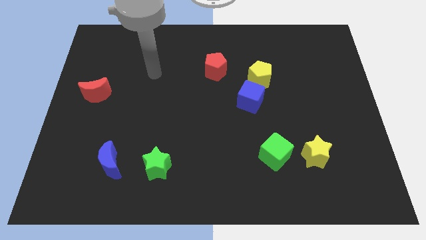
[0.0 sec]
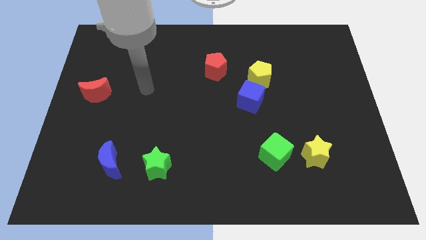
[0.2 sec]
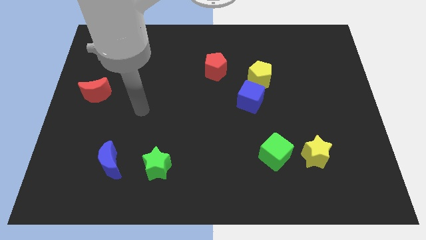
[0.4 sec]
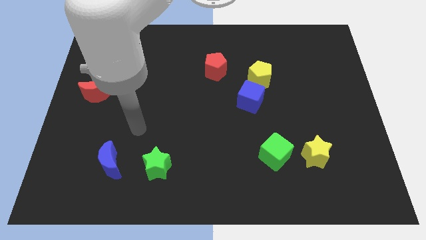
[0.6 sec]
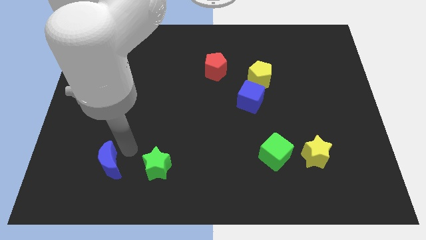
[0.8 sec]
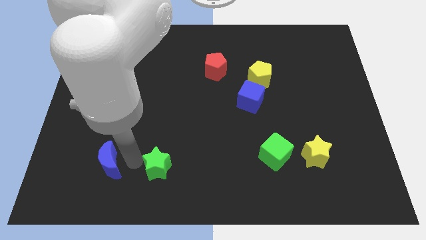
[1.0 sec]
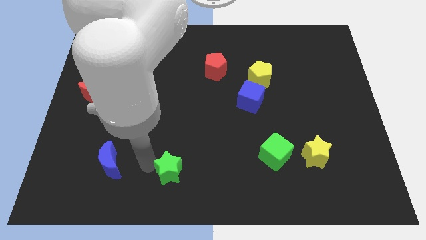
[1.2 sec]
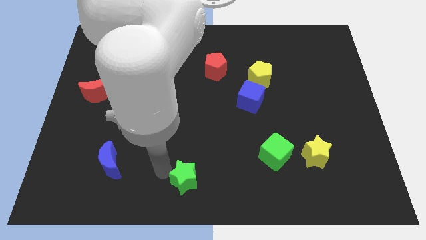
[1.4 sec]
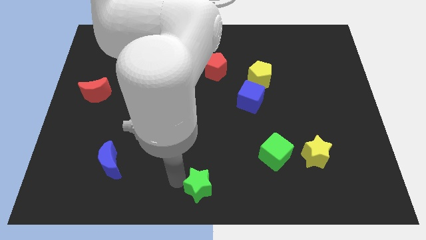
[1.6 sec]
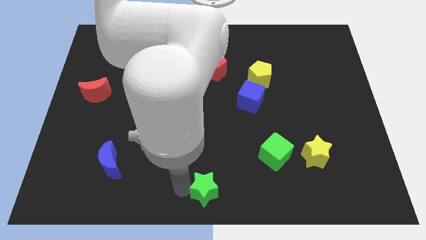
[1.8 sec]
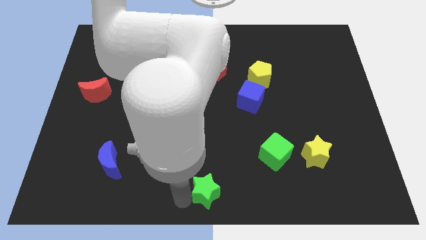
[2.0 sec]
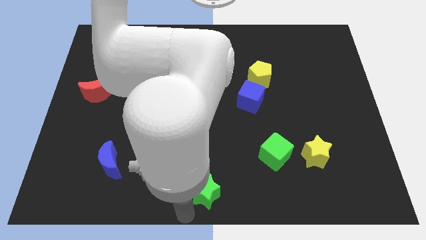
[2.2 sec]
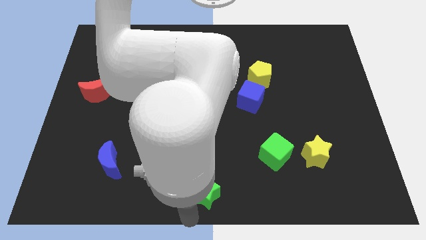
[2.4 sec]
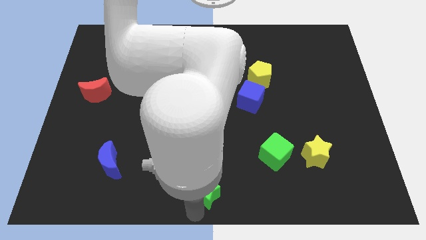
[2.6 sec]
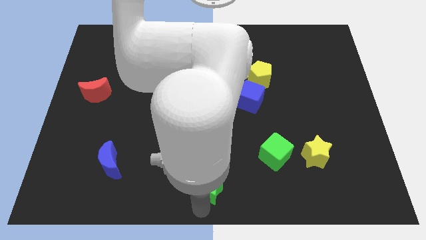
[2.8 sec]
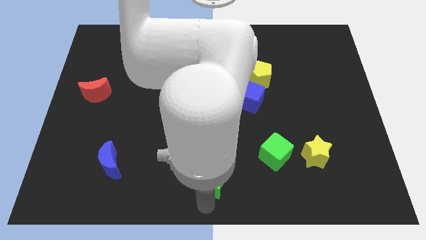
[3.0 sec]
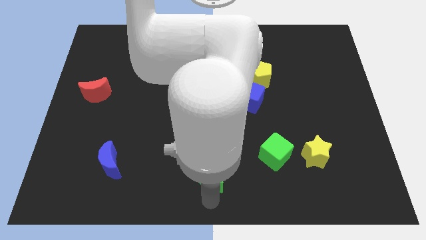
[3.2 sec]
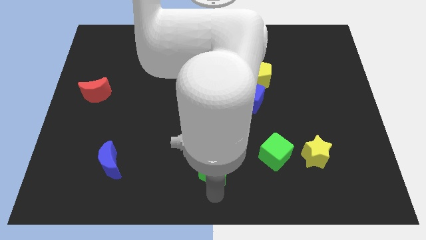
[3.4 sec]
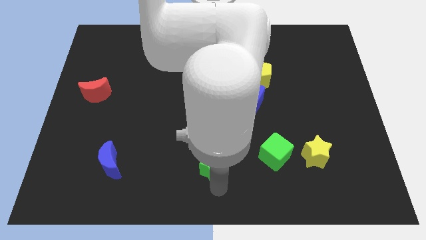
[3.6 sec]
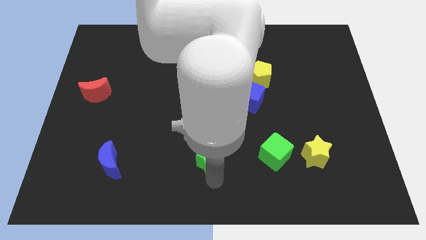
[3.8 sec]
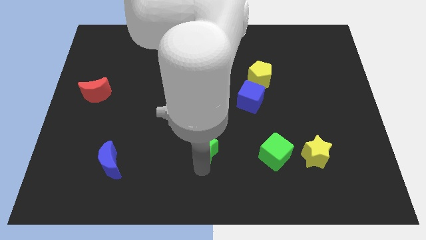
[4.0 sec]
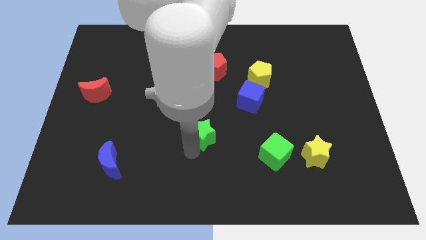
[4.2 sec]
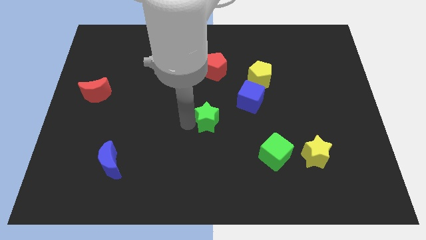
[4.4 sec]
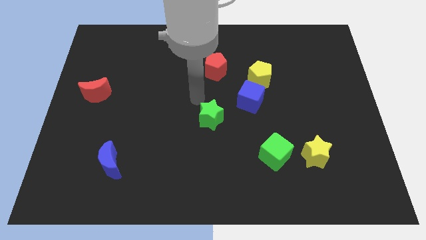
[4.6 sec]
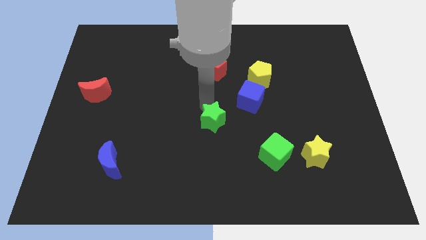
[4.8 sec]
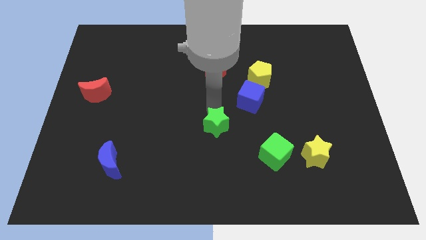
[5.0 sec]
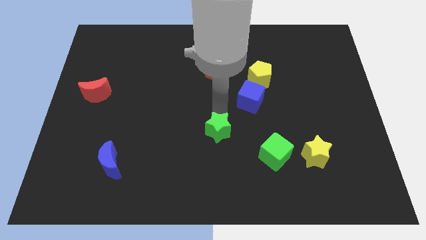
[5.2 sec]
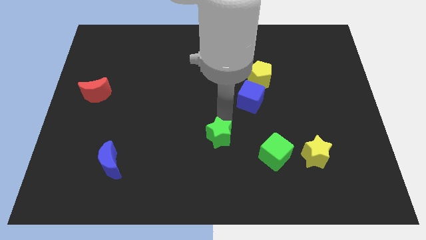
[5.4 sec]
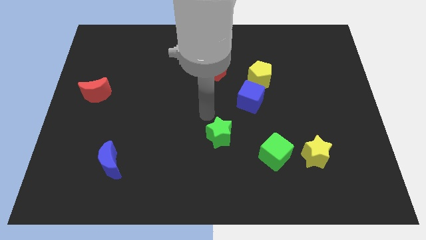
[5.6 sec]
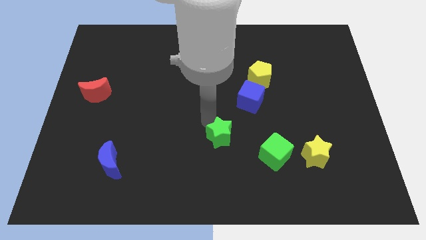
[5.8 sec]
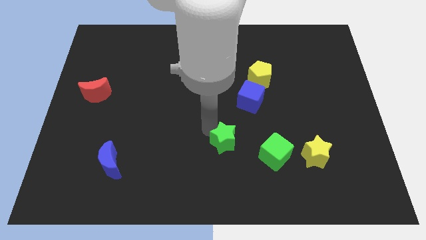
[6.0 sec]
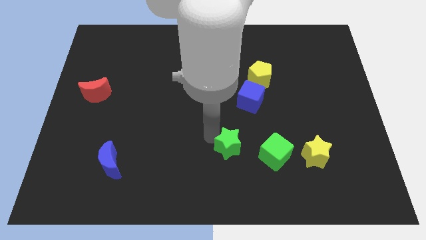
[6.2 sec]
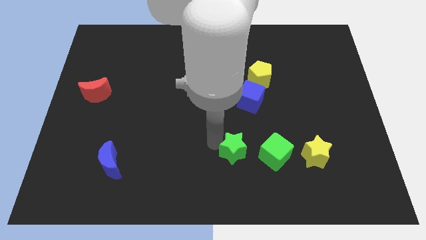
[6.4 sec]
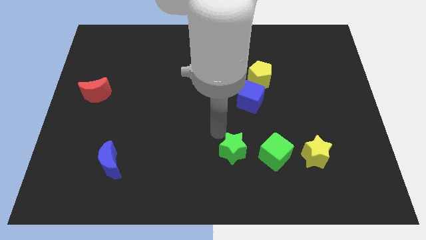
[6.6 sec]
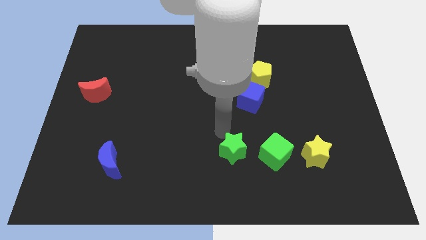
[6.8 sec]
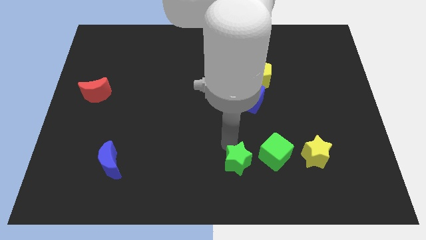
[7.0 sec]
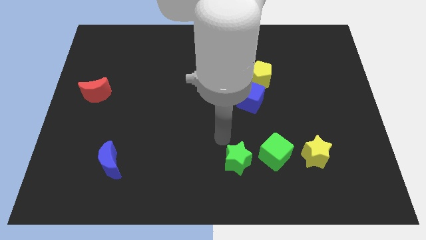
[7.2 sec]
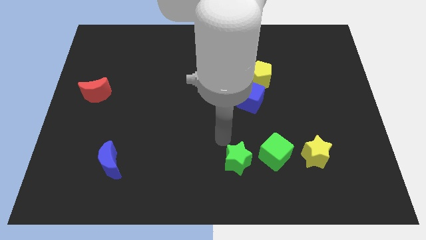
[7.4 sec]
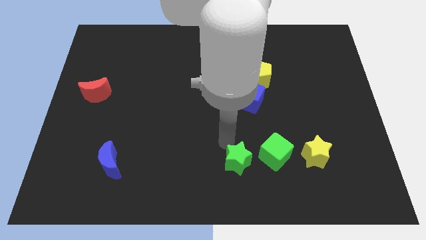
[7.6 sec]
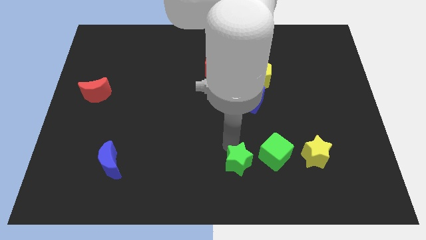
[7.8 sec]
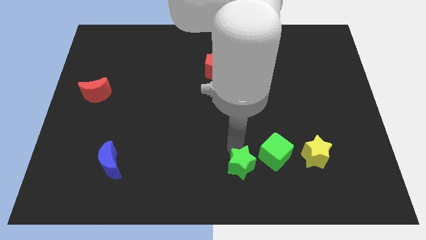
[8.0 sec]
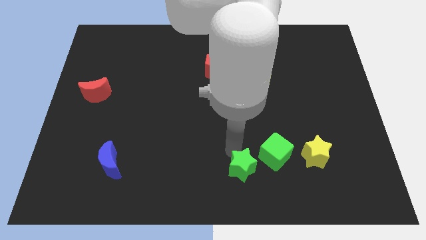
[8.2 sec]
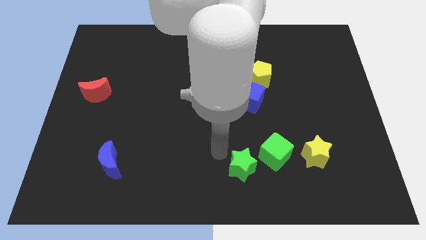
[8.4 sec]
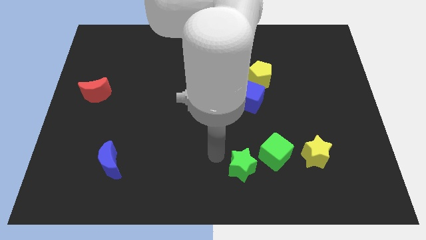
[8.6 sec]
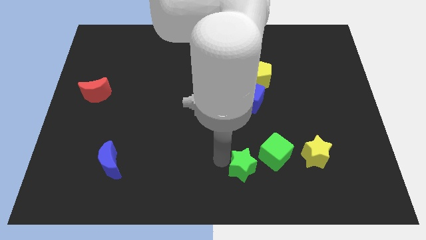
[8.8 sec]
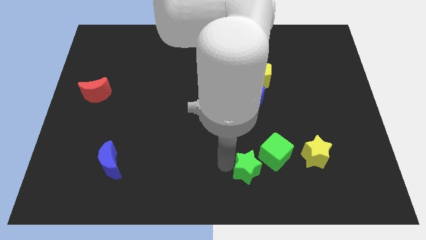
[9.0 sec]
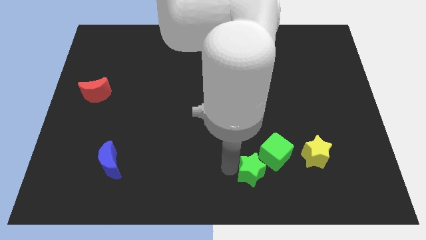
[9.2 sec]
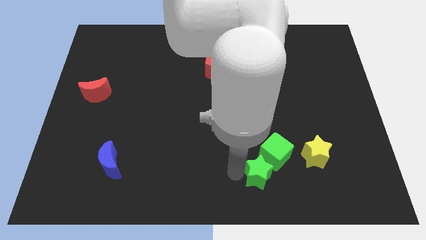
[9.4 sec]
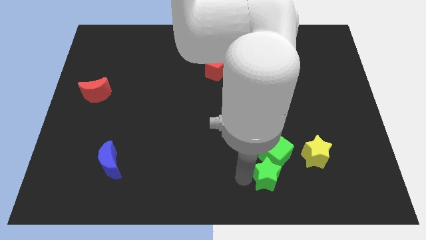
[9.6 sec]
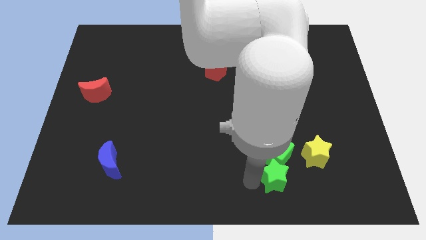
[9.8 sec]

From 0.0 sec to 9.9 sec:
move the green star to the bottom right of the green cube

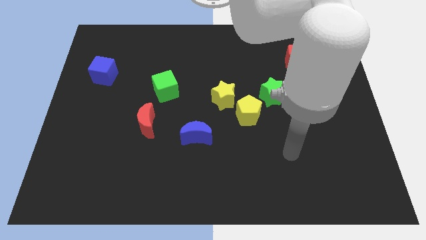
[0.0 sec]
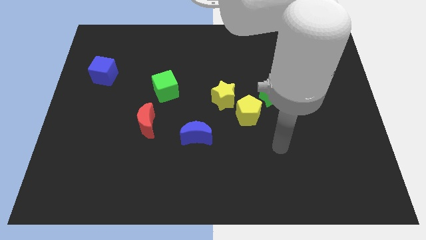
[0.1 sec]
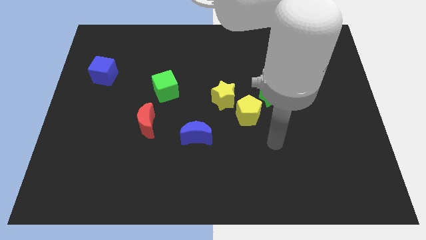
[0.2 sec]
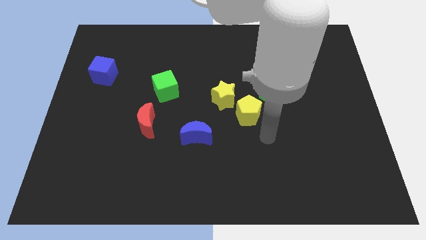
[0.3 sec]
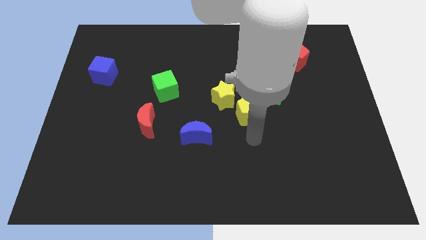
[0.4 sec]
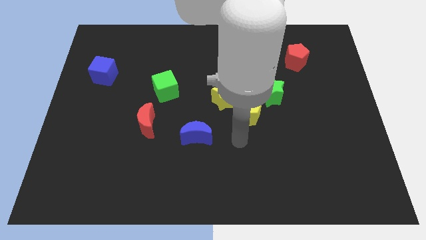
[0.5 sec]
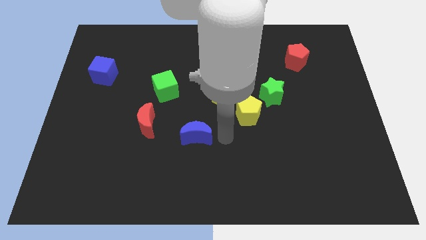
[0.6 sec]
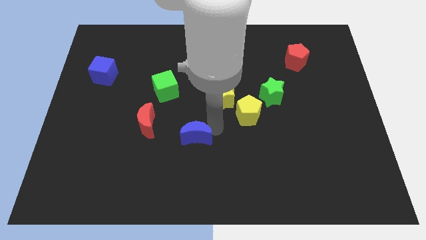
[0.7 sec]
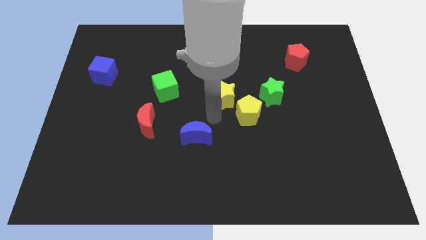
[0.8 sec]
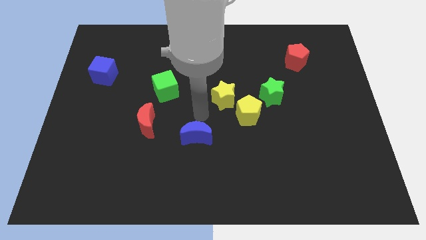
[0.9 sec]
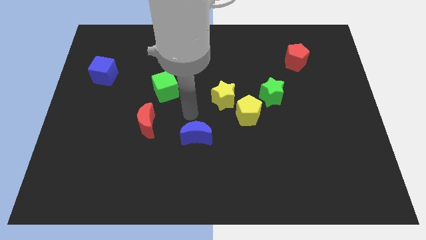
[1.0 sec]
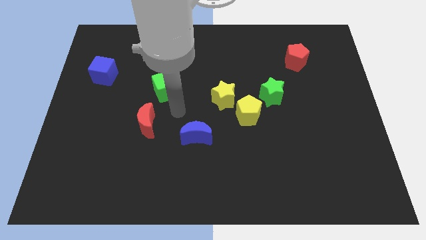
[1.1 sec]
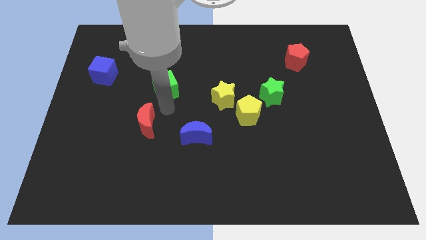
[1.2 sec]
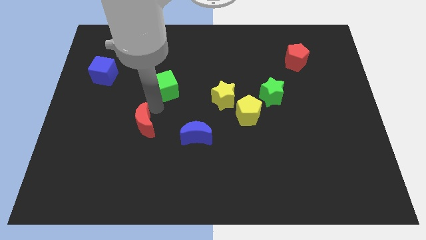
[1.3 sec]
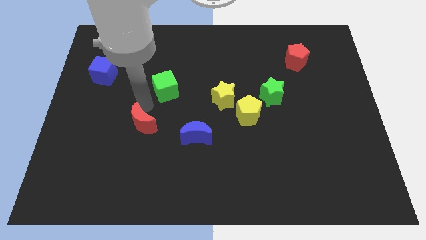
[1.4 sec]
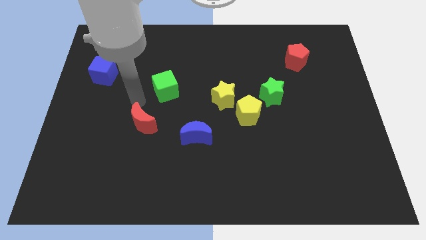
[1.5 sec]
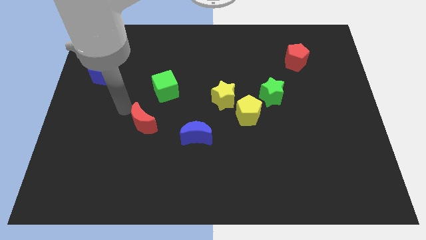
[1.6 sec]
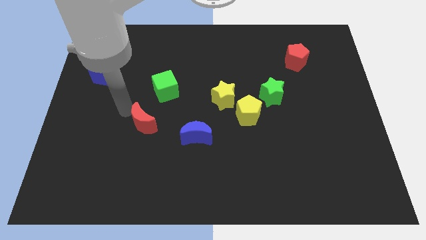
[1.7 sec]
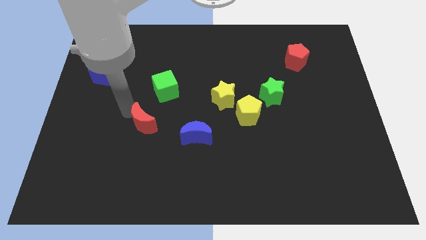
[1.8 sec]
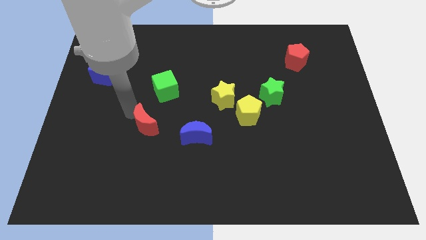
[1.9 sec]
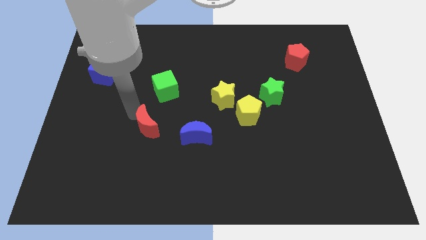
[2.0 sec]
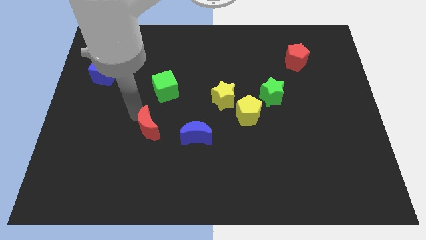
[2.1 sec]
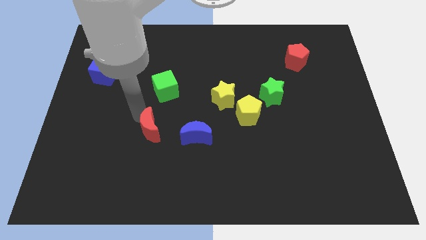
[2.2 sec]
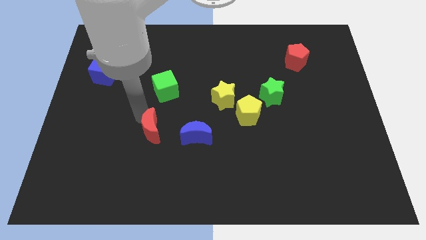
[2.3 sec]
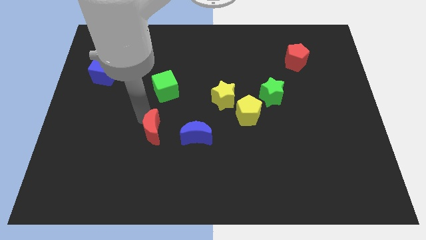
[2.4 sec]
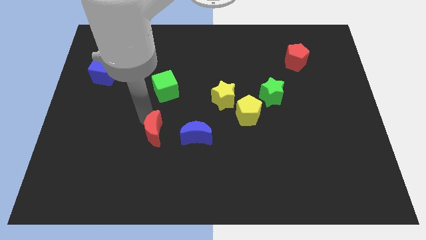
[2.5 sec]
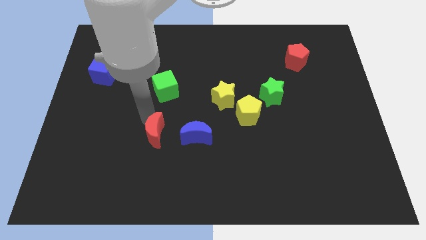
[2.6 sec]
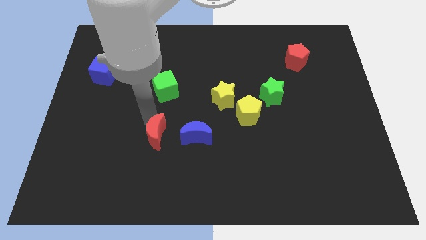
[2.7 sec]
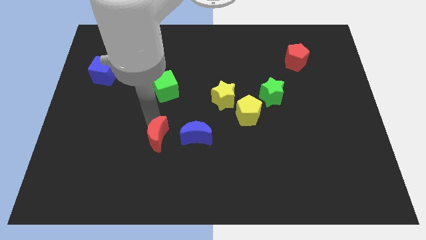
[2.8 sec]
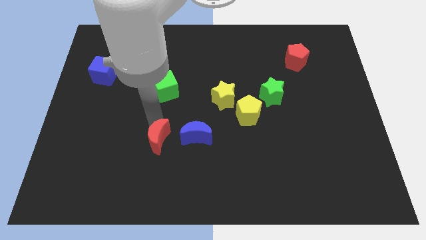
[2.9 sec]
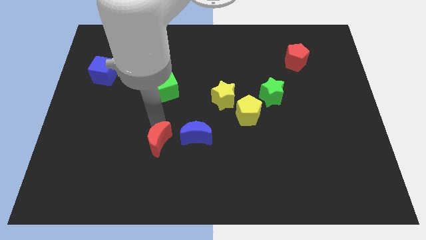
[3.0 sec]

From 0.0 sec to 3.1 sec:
slide the red moon diagonally down and to the left of the blue moon

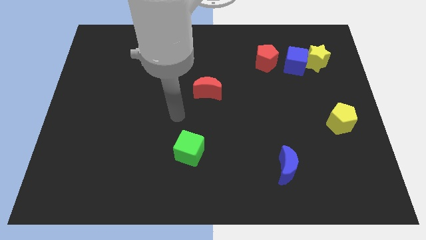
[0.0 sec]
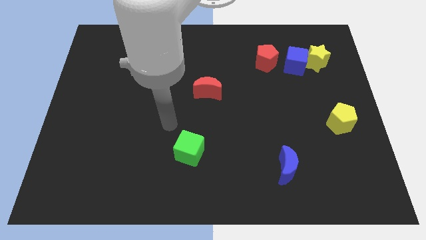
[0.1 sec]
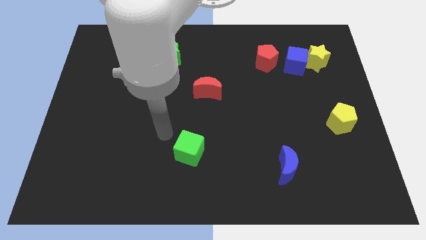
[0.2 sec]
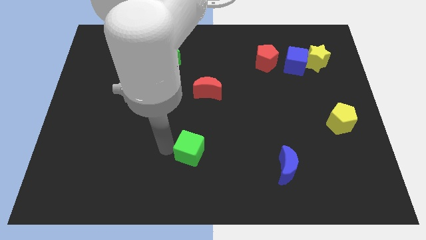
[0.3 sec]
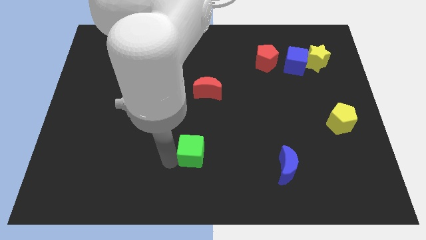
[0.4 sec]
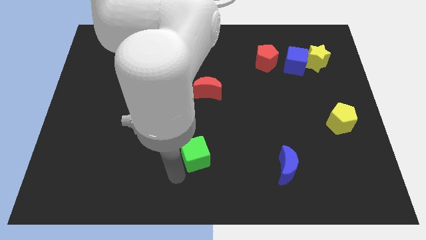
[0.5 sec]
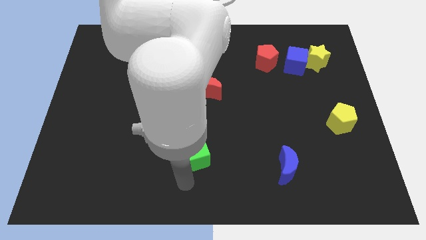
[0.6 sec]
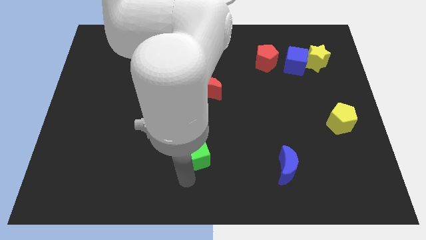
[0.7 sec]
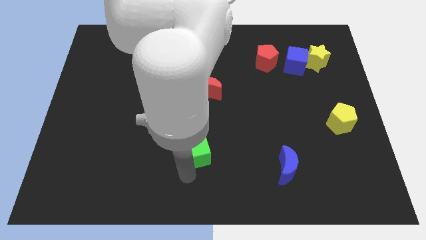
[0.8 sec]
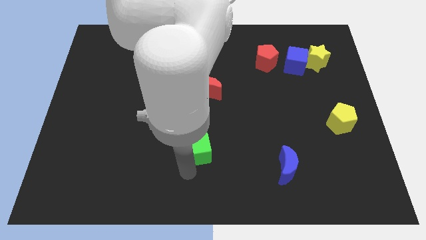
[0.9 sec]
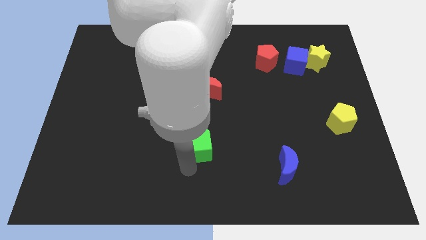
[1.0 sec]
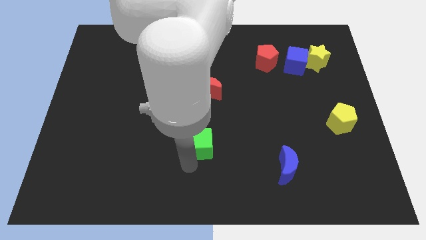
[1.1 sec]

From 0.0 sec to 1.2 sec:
move the green cube below the red moon
